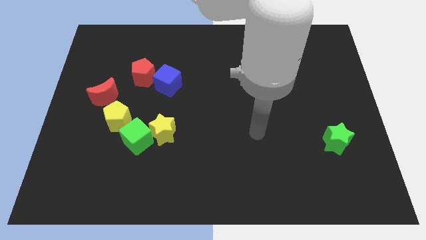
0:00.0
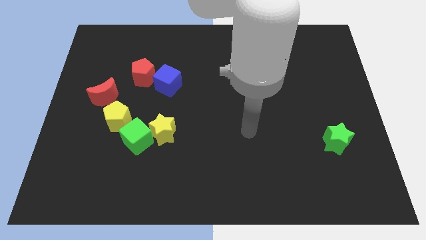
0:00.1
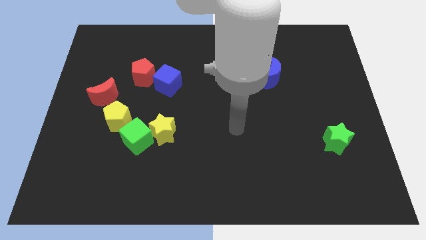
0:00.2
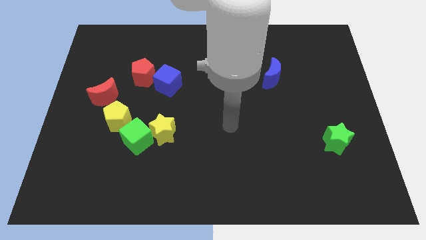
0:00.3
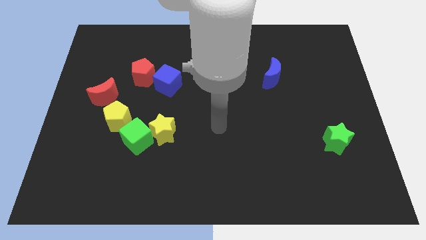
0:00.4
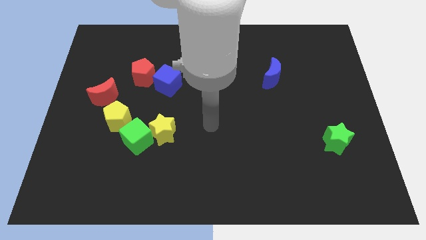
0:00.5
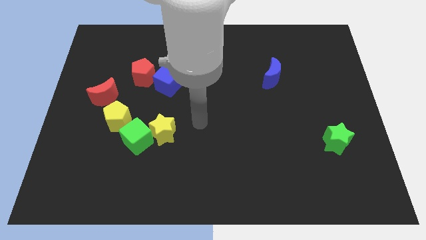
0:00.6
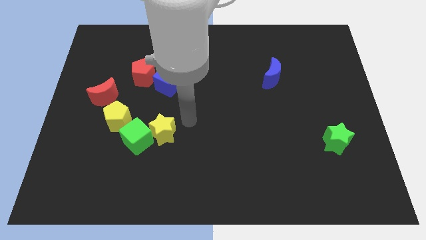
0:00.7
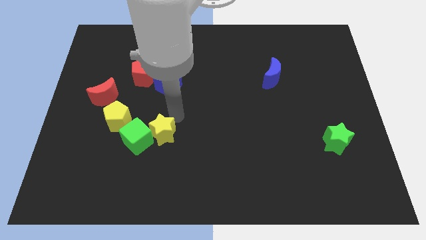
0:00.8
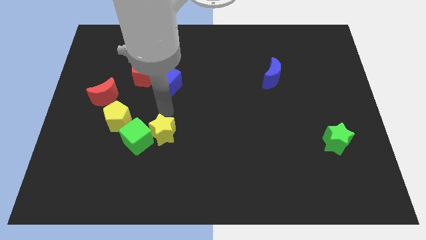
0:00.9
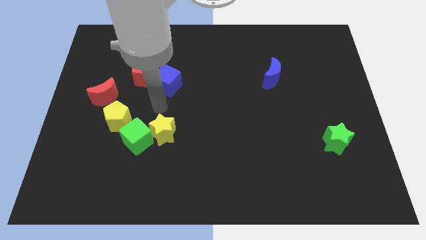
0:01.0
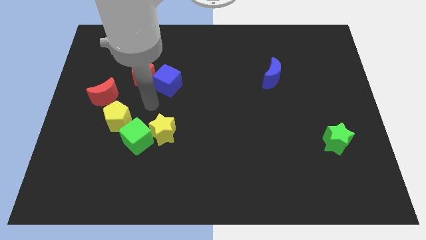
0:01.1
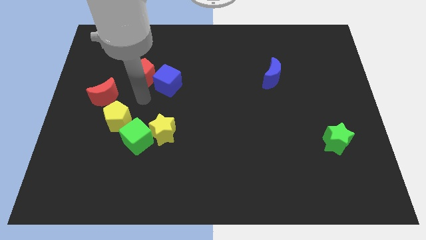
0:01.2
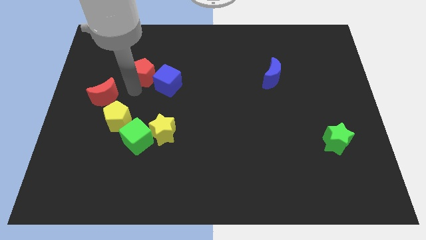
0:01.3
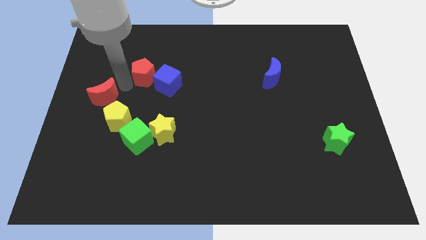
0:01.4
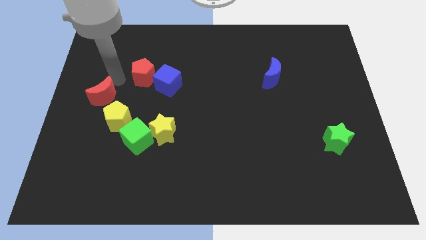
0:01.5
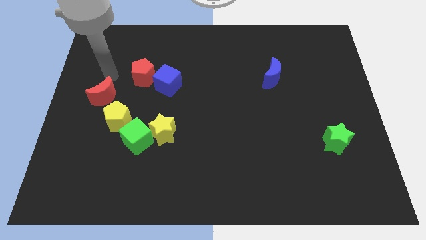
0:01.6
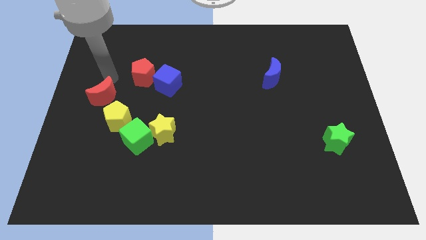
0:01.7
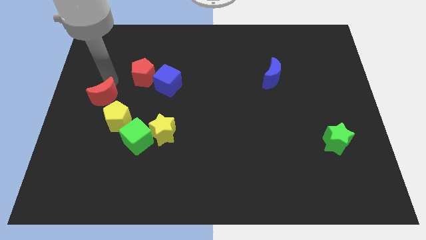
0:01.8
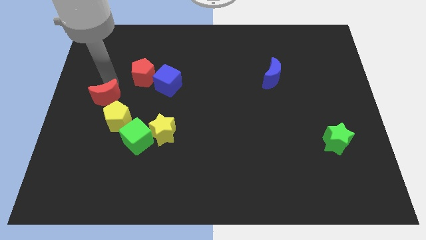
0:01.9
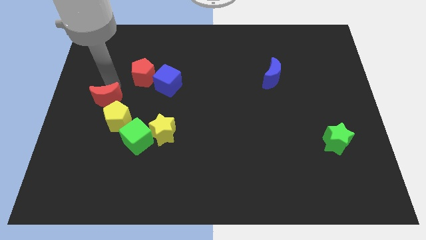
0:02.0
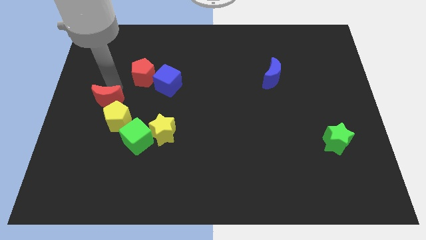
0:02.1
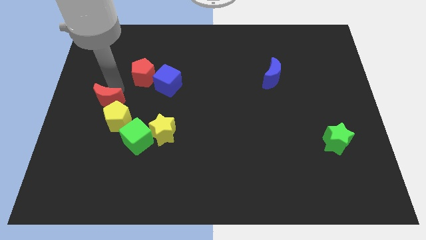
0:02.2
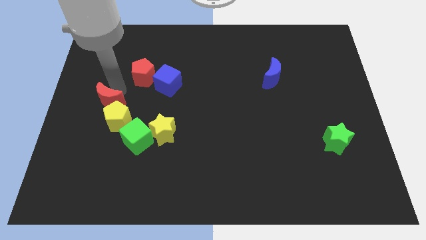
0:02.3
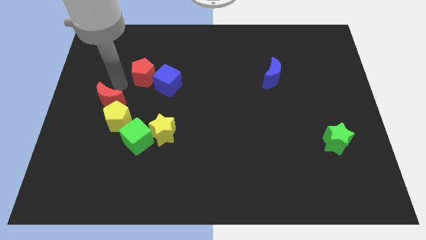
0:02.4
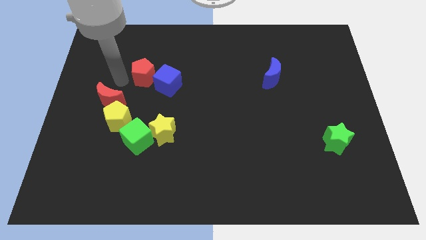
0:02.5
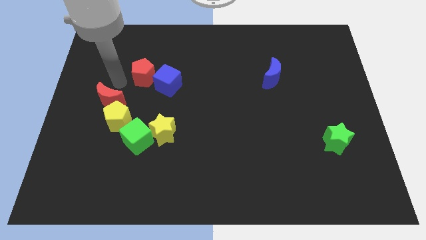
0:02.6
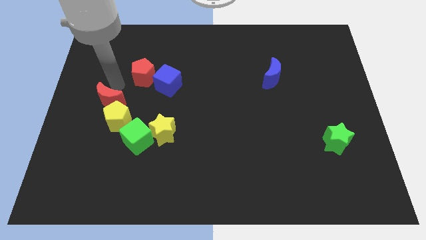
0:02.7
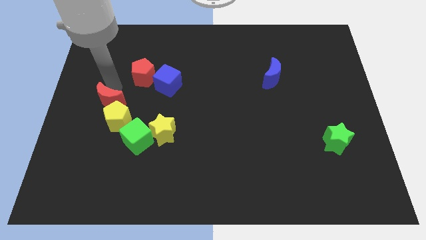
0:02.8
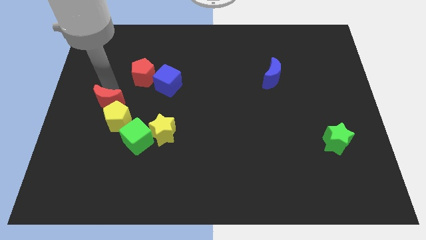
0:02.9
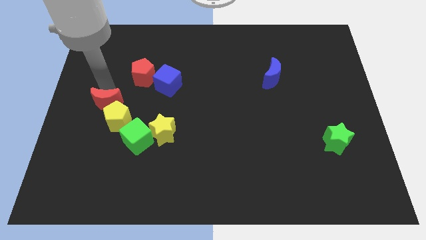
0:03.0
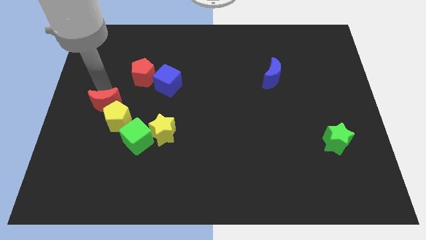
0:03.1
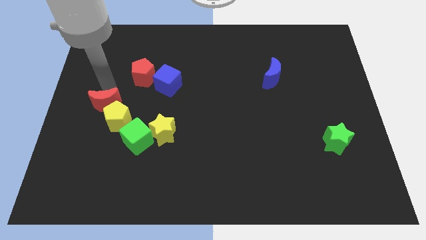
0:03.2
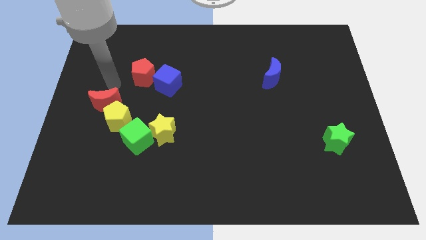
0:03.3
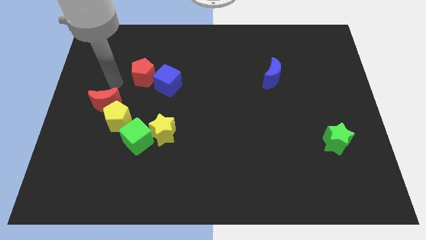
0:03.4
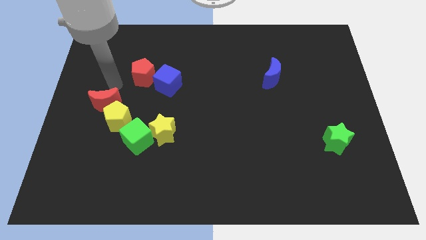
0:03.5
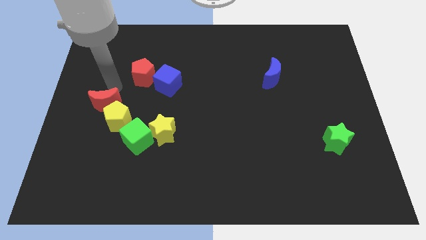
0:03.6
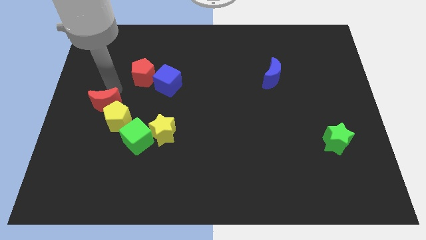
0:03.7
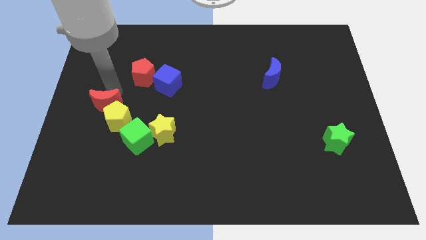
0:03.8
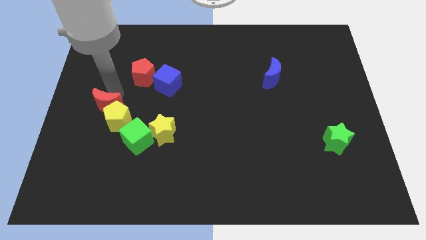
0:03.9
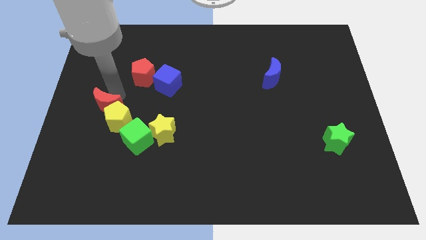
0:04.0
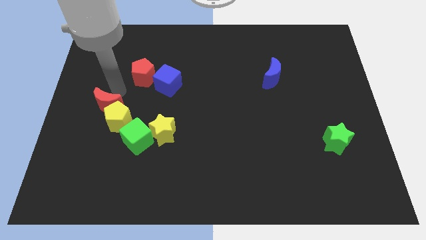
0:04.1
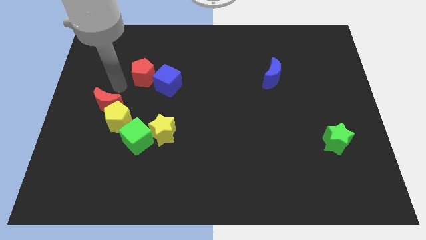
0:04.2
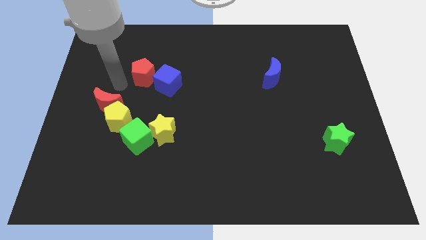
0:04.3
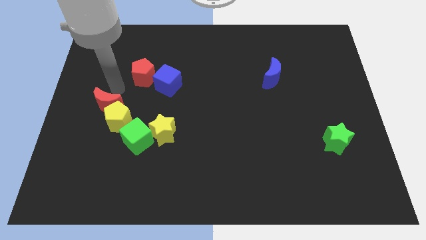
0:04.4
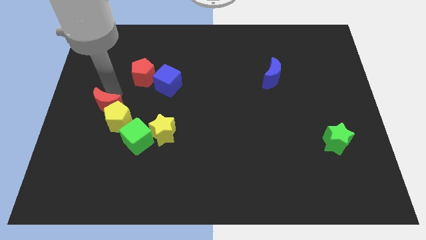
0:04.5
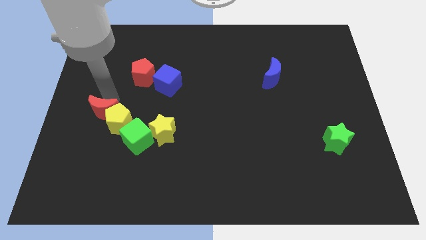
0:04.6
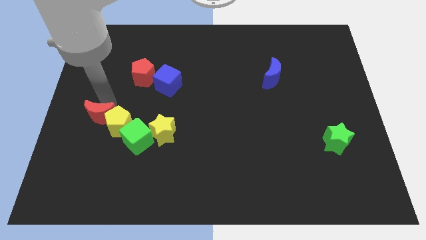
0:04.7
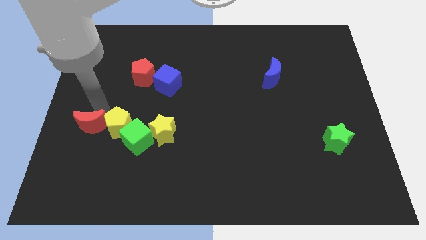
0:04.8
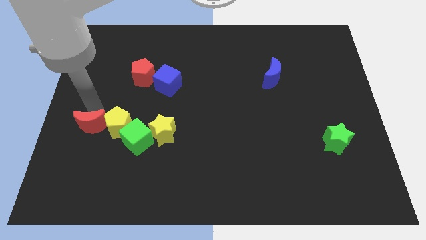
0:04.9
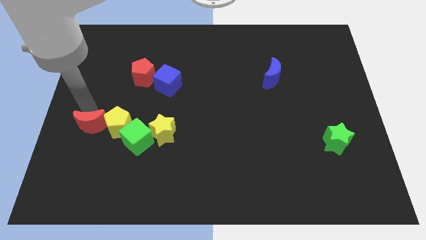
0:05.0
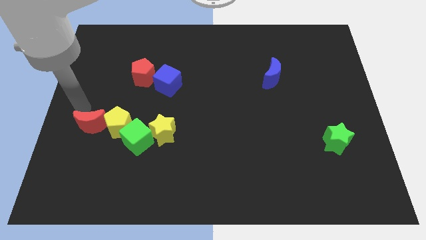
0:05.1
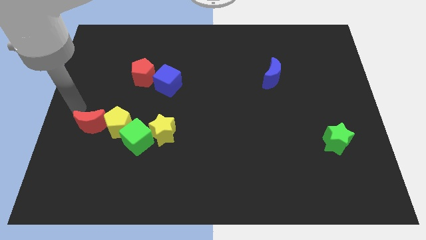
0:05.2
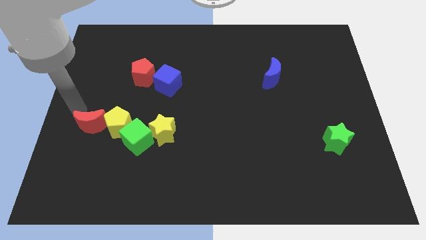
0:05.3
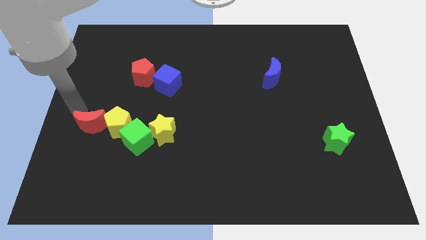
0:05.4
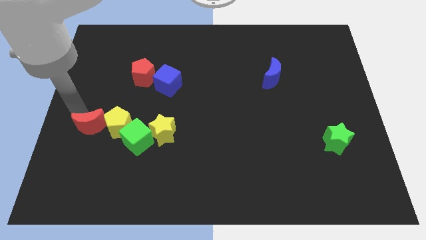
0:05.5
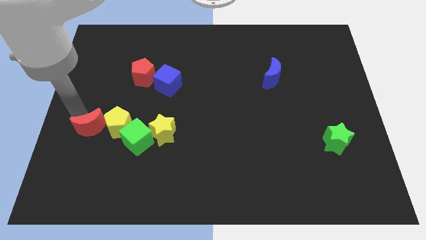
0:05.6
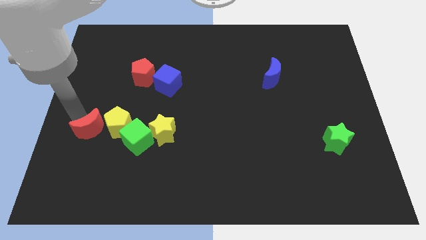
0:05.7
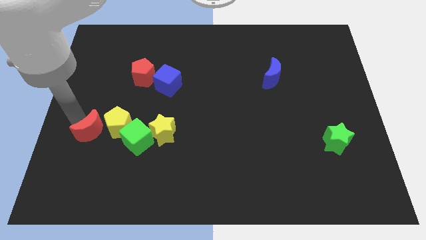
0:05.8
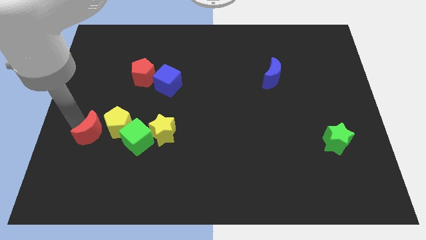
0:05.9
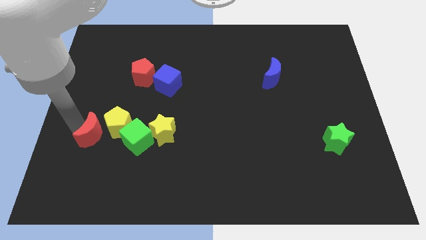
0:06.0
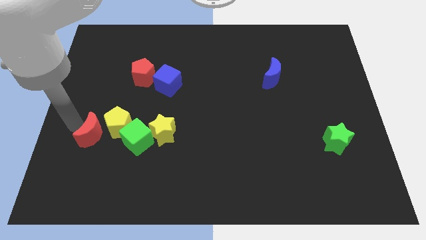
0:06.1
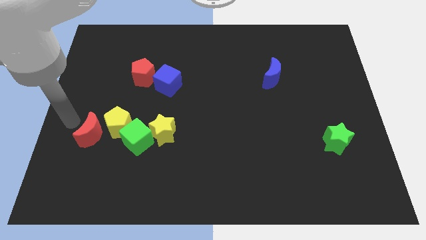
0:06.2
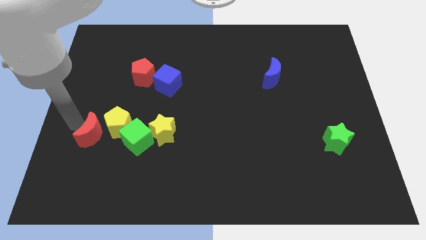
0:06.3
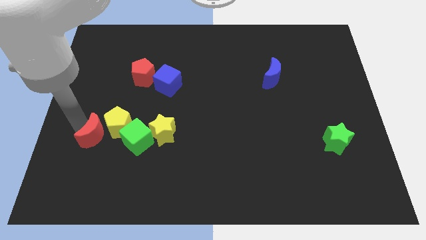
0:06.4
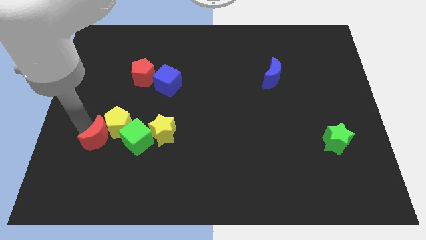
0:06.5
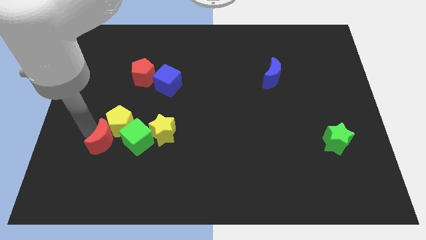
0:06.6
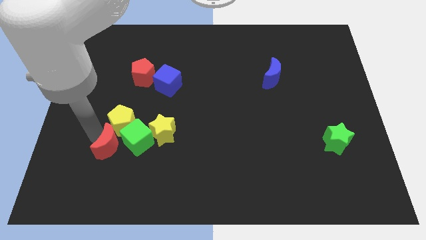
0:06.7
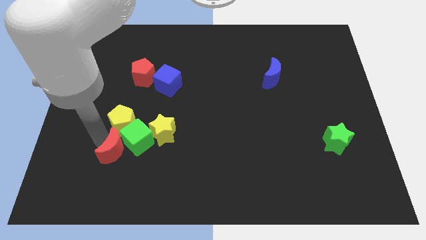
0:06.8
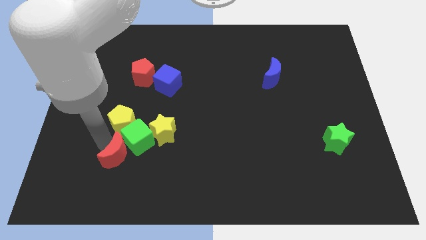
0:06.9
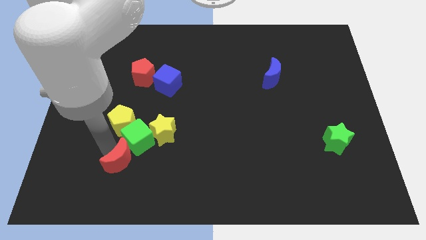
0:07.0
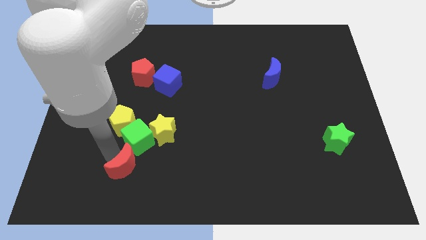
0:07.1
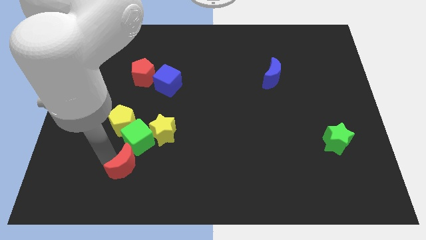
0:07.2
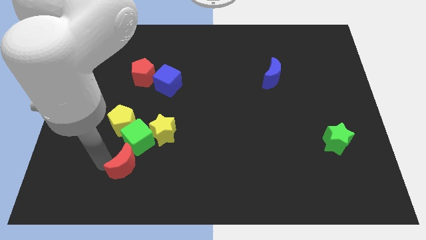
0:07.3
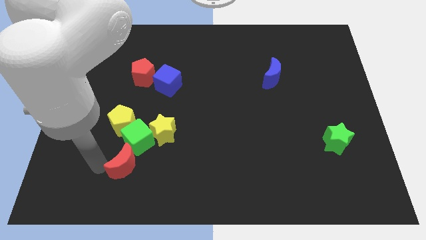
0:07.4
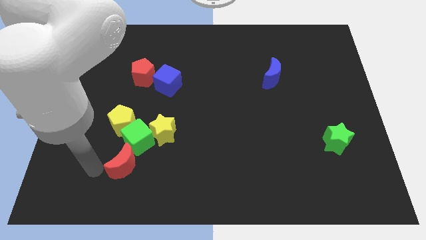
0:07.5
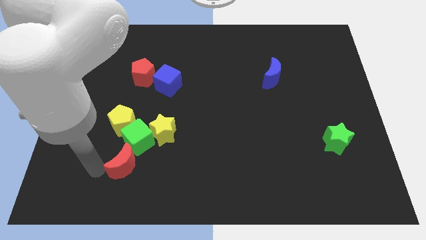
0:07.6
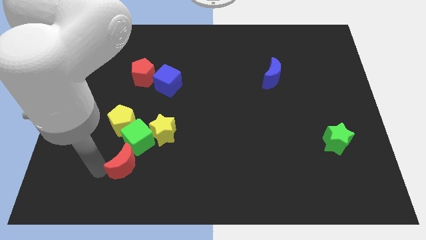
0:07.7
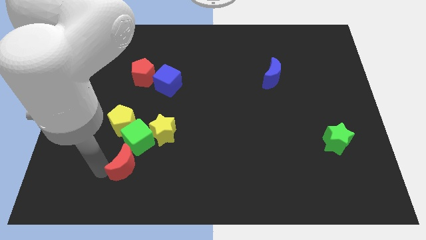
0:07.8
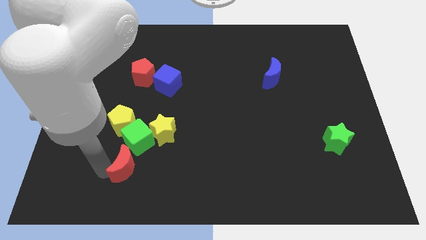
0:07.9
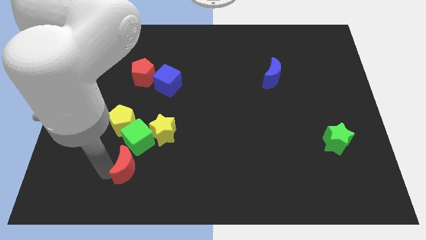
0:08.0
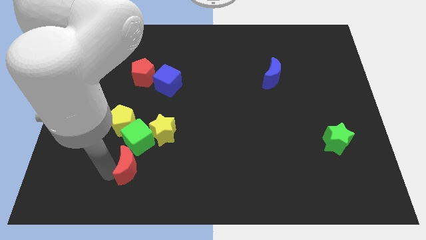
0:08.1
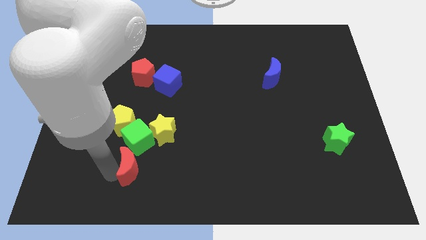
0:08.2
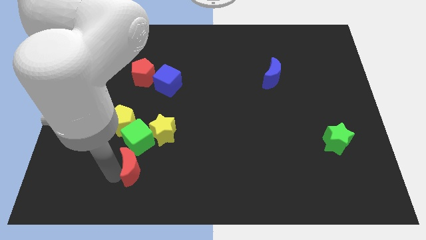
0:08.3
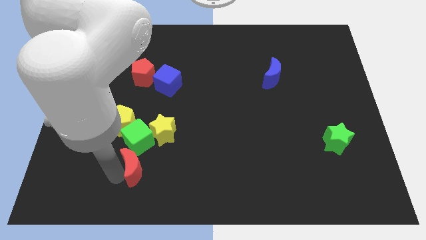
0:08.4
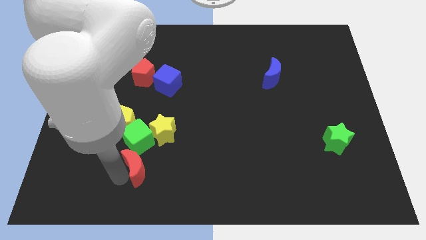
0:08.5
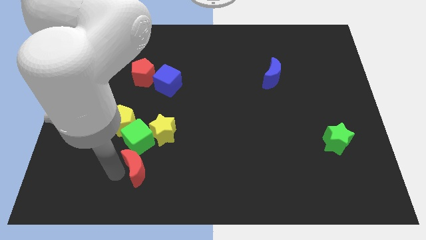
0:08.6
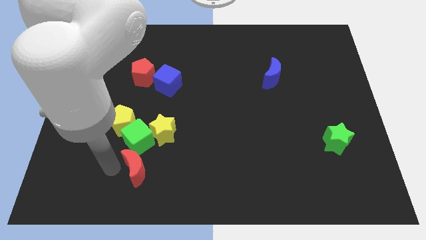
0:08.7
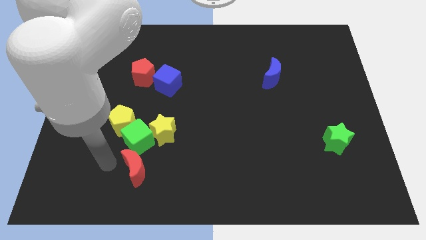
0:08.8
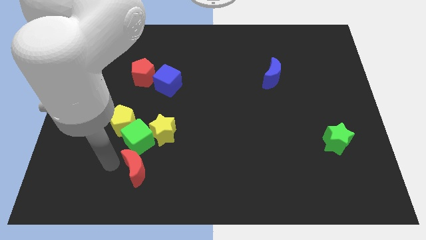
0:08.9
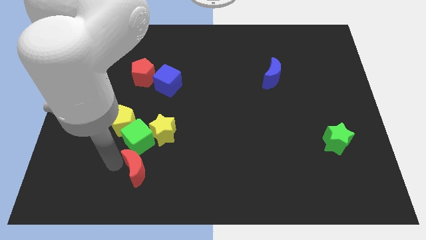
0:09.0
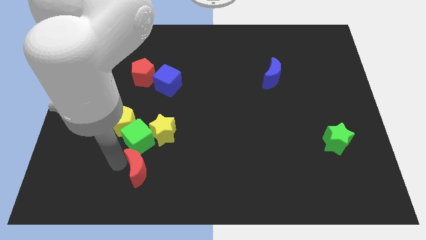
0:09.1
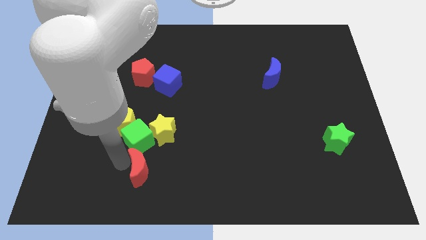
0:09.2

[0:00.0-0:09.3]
move the red moon diagonally downwards and right
